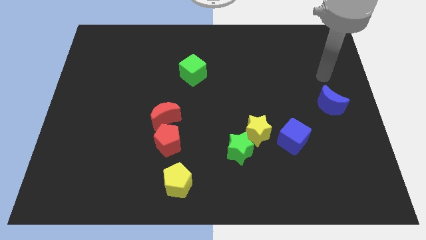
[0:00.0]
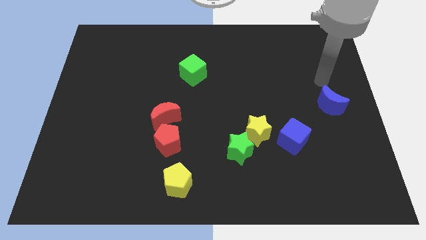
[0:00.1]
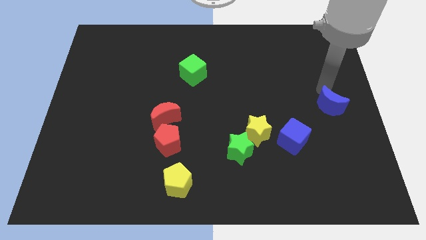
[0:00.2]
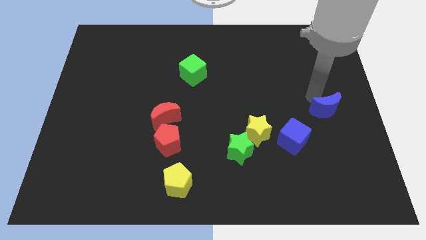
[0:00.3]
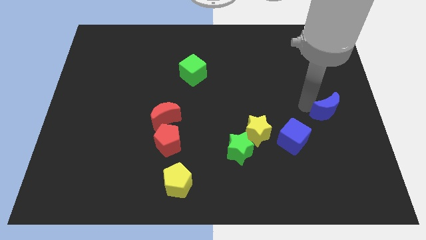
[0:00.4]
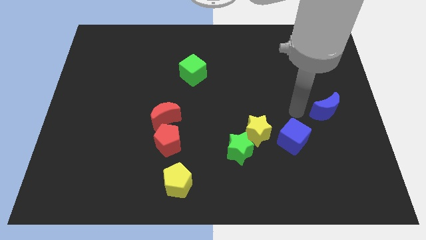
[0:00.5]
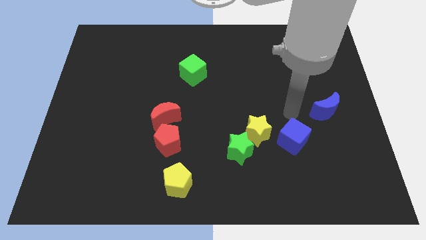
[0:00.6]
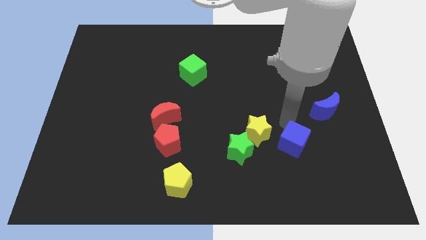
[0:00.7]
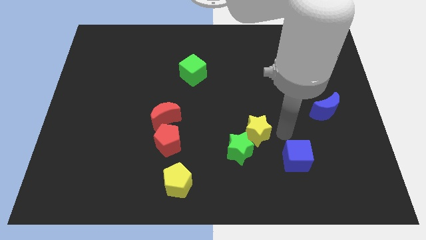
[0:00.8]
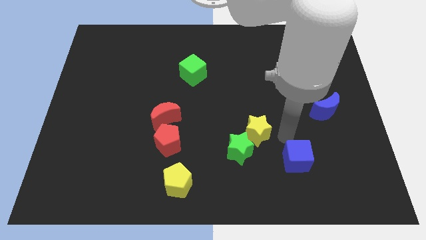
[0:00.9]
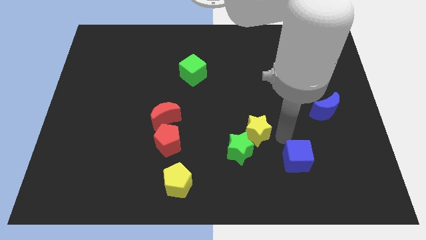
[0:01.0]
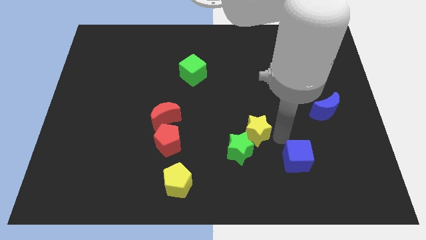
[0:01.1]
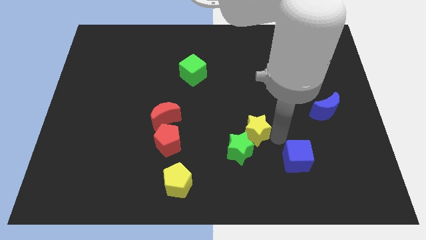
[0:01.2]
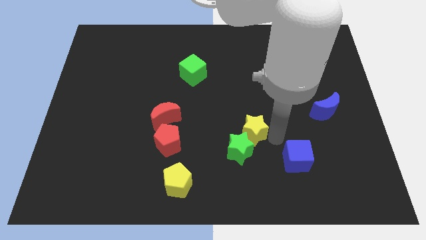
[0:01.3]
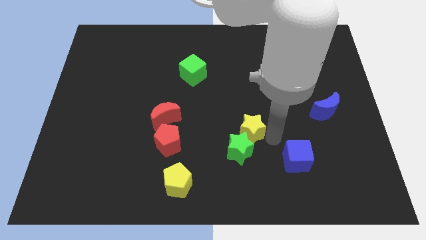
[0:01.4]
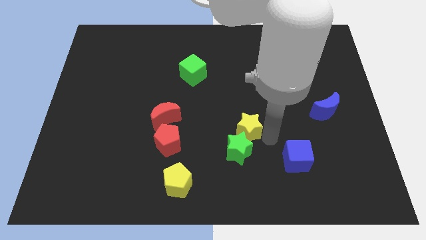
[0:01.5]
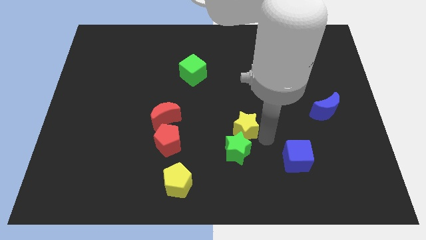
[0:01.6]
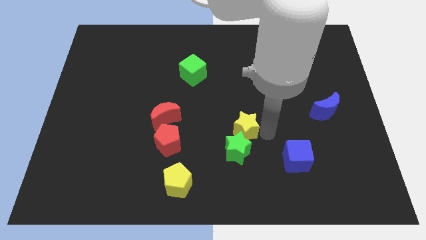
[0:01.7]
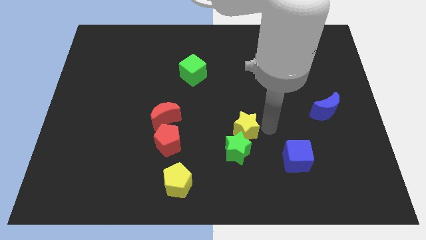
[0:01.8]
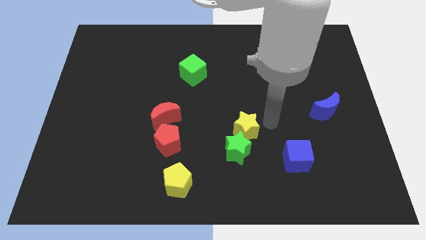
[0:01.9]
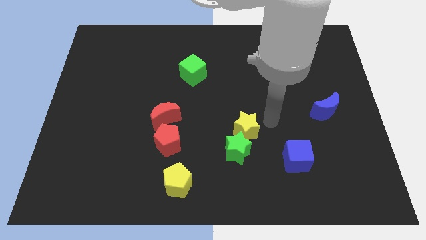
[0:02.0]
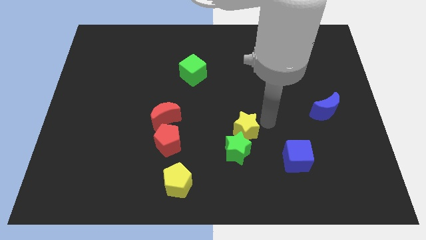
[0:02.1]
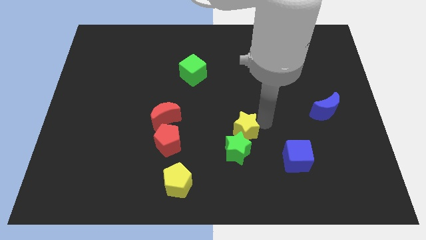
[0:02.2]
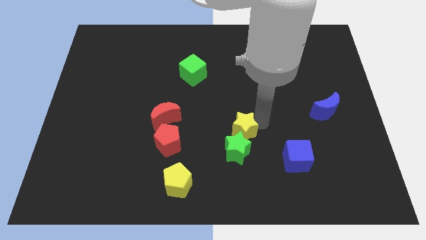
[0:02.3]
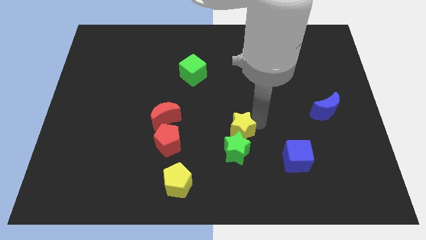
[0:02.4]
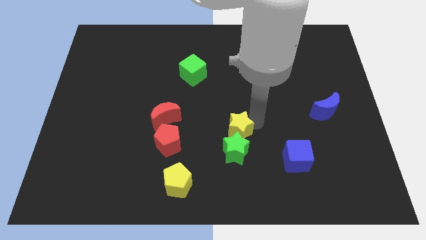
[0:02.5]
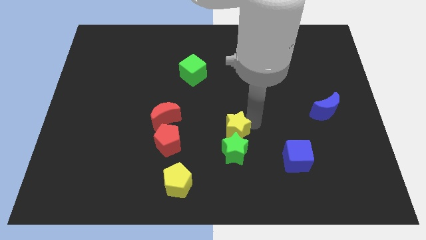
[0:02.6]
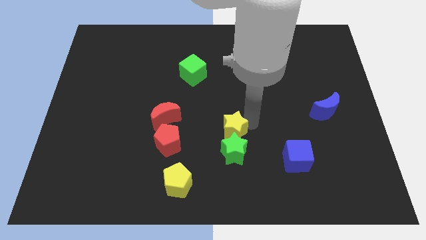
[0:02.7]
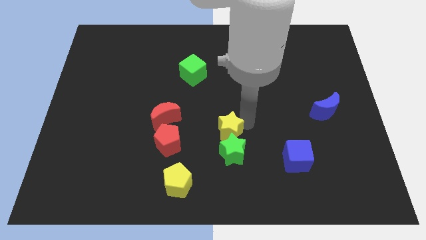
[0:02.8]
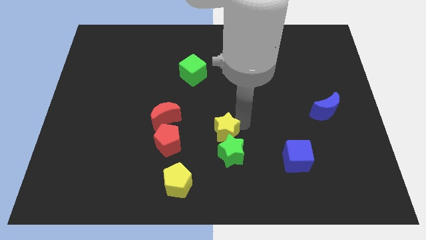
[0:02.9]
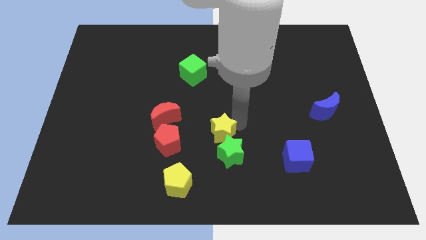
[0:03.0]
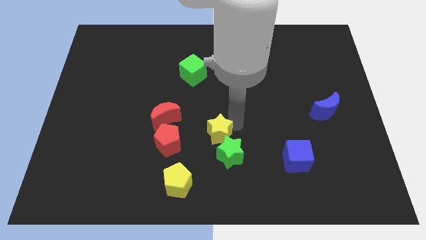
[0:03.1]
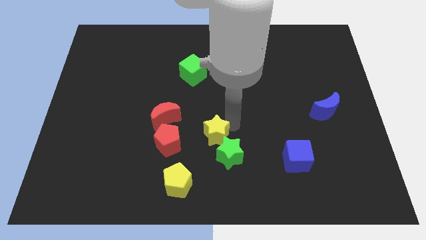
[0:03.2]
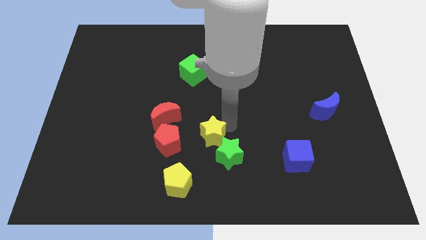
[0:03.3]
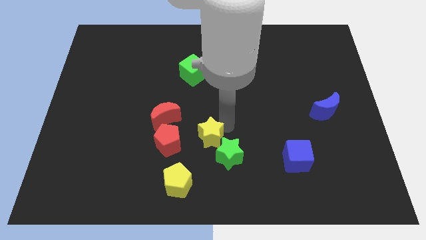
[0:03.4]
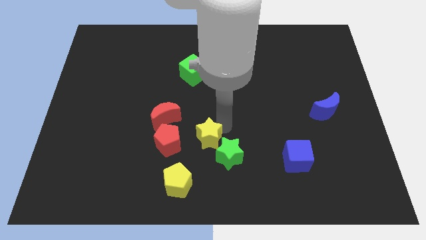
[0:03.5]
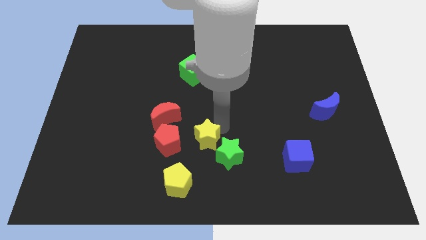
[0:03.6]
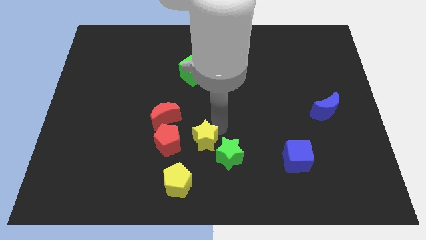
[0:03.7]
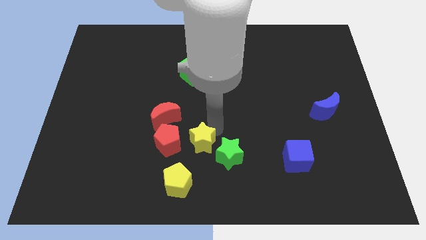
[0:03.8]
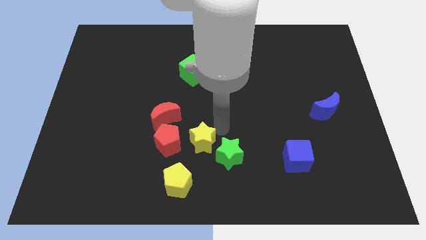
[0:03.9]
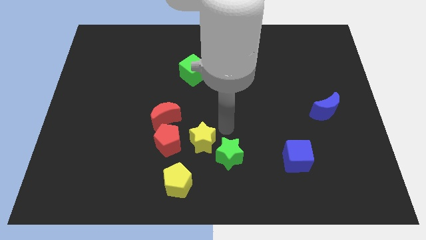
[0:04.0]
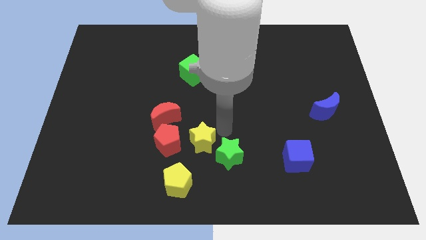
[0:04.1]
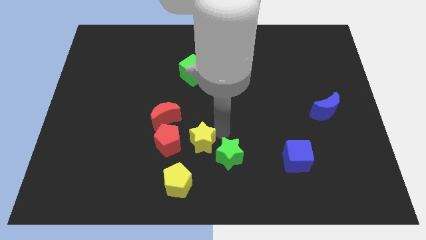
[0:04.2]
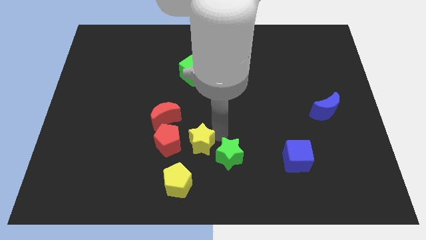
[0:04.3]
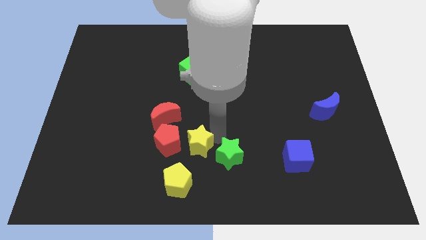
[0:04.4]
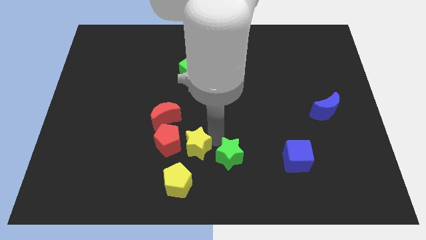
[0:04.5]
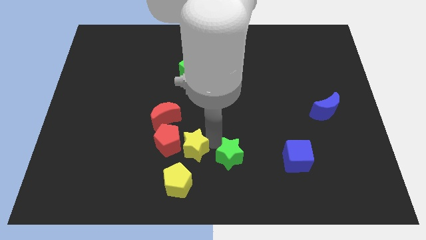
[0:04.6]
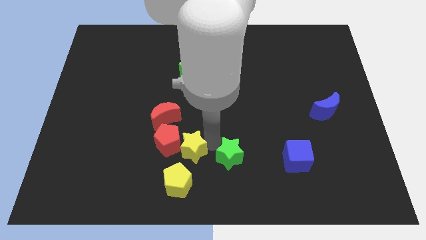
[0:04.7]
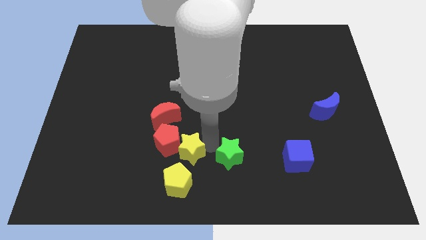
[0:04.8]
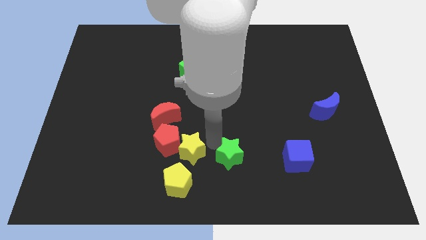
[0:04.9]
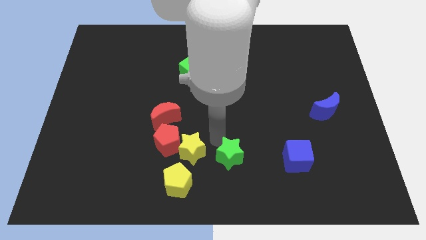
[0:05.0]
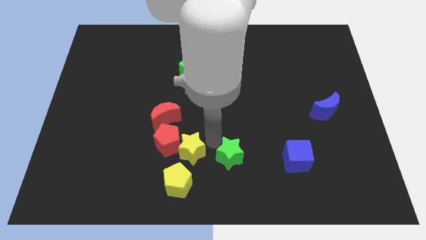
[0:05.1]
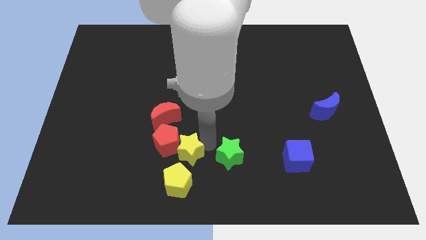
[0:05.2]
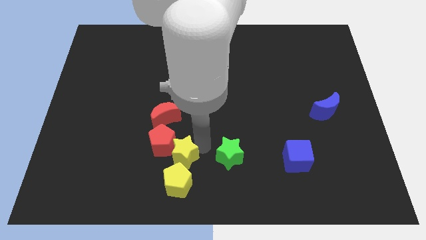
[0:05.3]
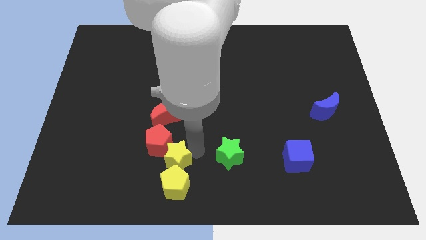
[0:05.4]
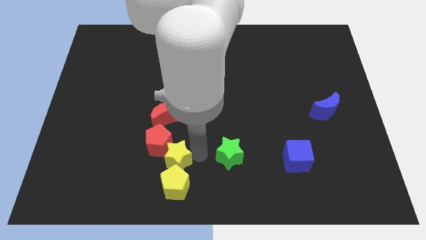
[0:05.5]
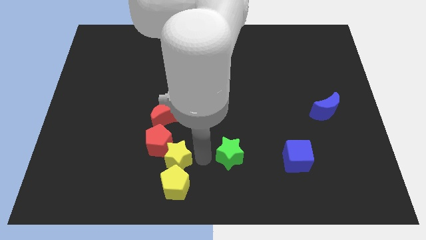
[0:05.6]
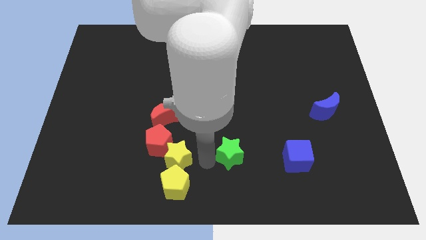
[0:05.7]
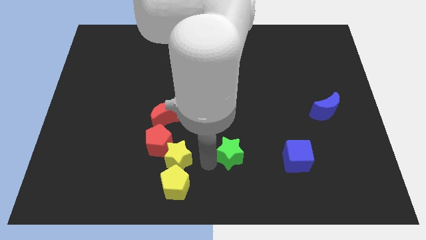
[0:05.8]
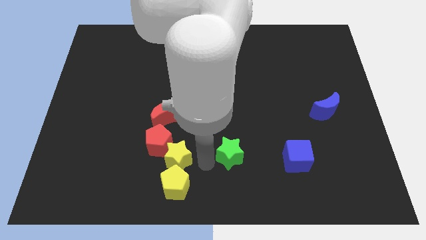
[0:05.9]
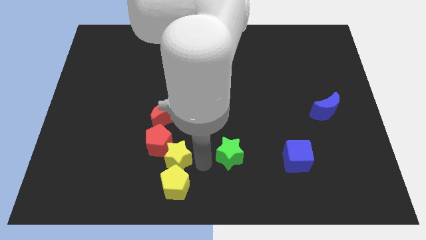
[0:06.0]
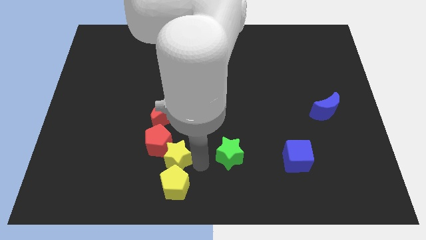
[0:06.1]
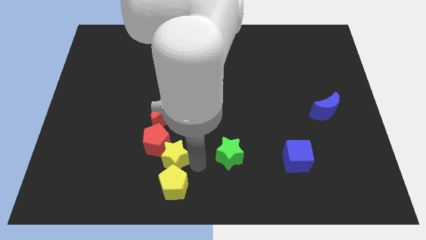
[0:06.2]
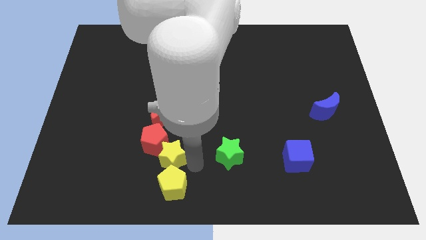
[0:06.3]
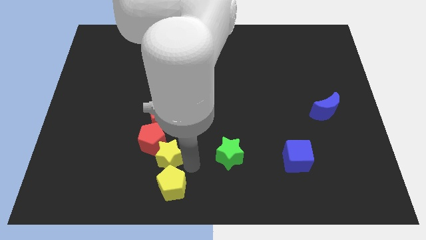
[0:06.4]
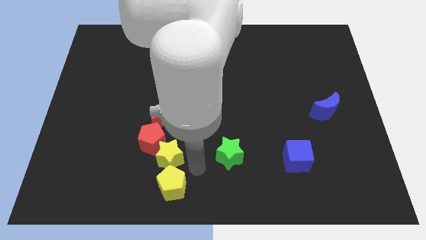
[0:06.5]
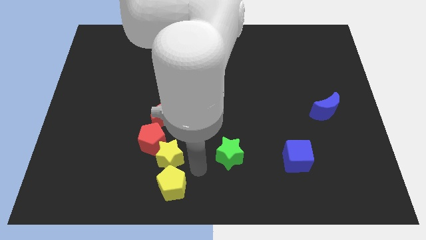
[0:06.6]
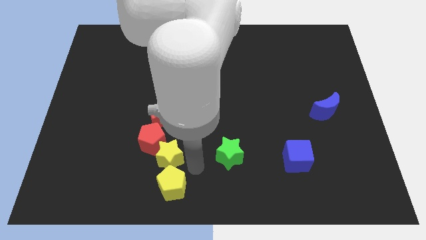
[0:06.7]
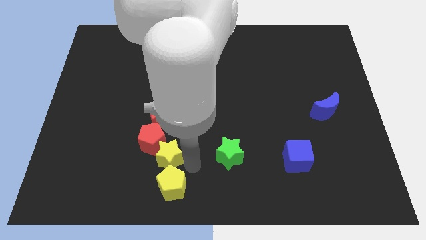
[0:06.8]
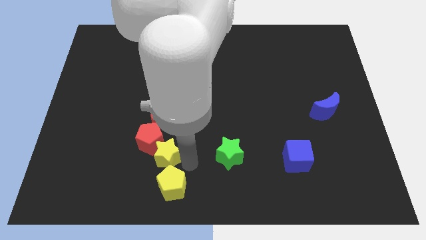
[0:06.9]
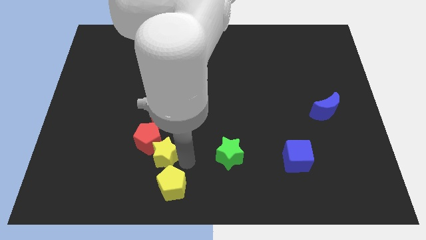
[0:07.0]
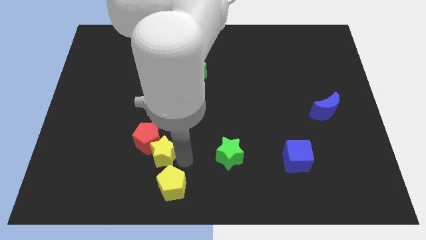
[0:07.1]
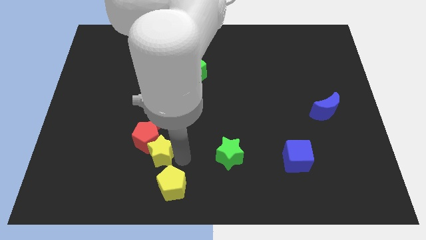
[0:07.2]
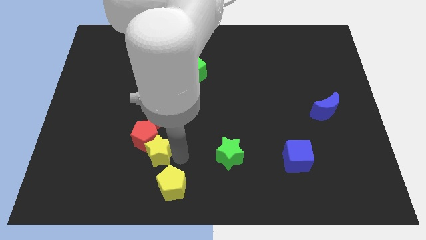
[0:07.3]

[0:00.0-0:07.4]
push the yellow star left

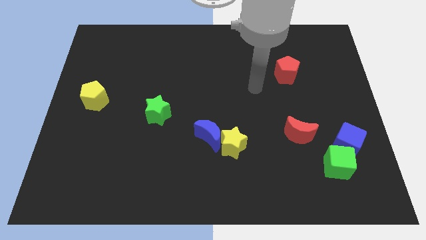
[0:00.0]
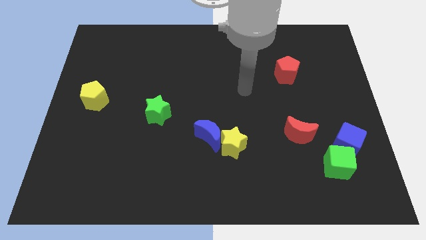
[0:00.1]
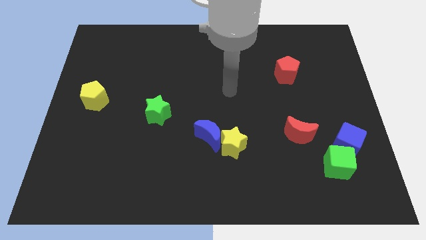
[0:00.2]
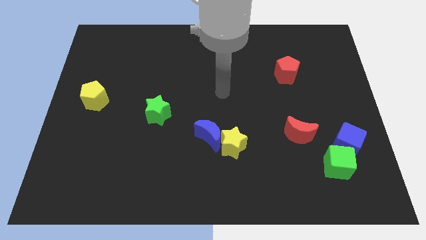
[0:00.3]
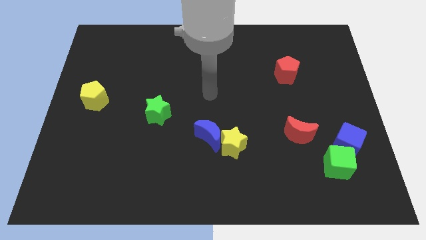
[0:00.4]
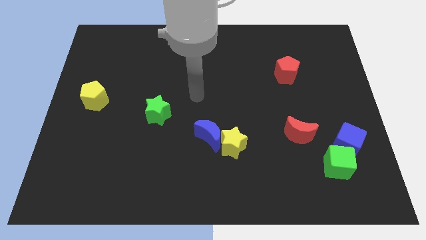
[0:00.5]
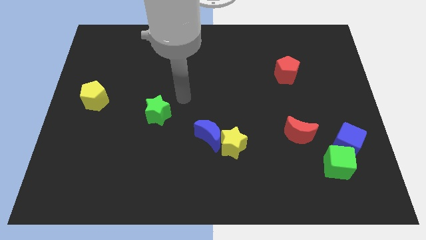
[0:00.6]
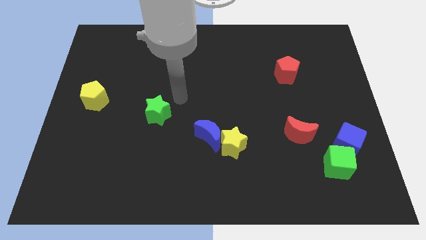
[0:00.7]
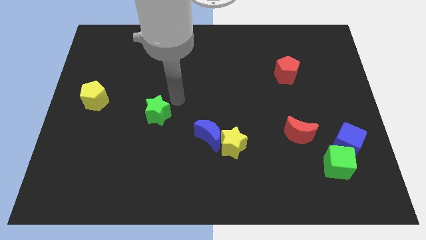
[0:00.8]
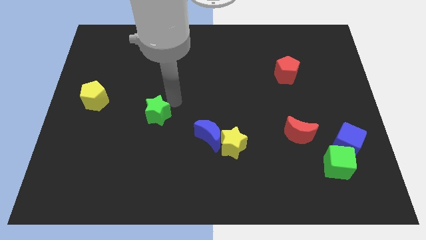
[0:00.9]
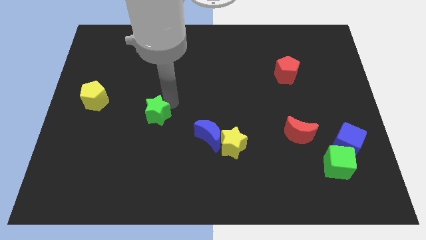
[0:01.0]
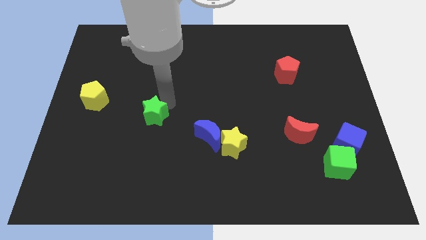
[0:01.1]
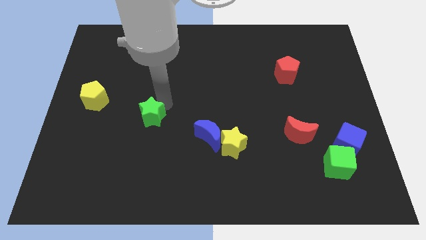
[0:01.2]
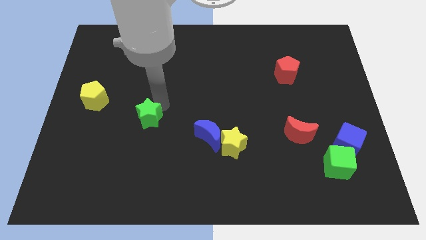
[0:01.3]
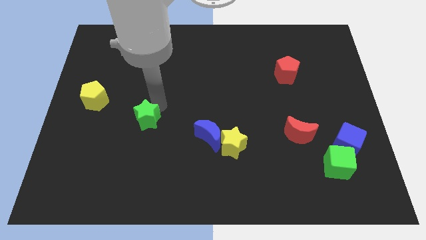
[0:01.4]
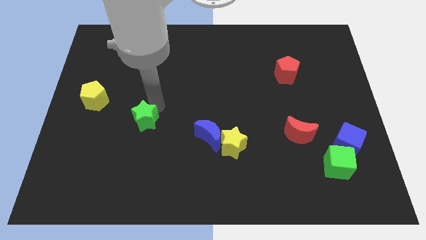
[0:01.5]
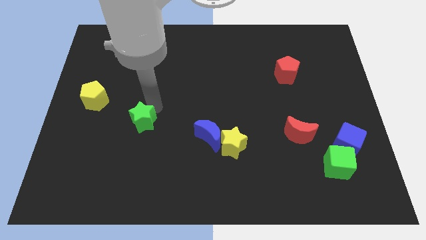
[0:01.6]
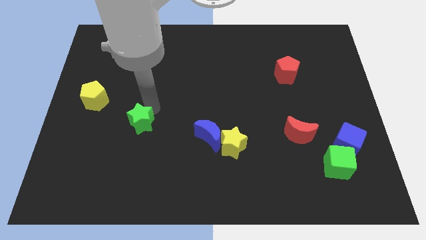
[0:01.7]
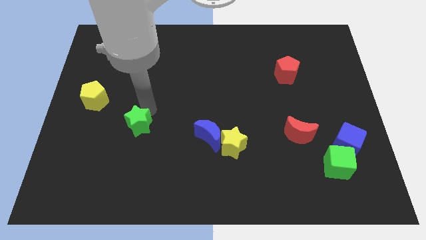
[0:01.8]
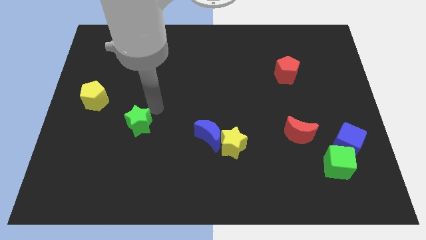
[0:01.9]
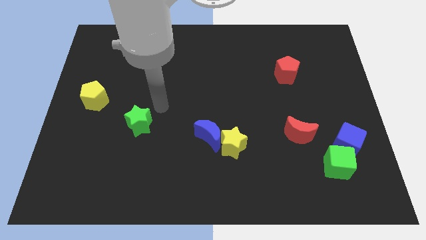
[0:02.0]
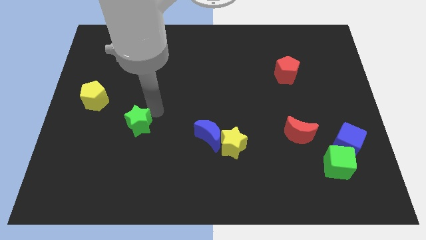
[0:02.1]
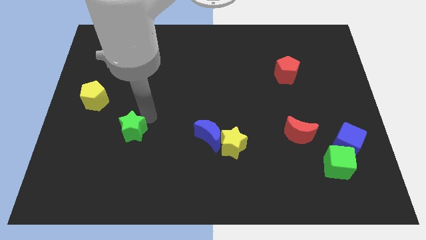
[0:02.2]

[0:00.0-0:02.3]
push the green star diagonally down and left somewhat
